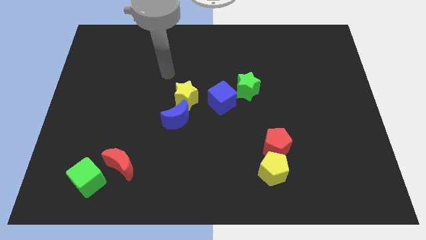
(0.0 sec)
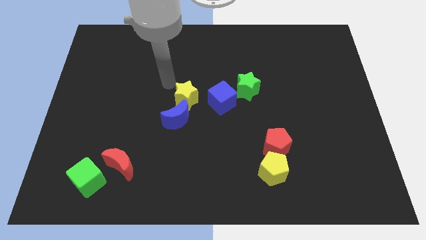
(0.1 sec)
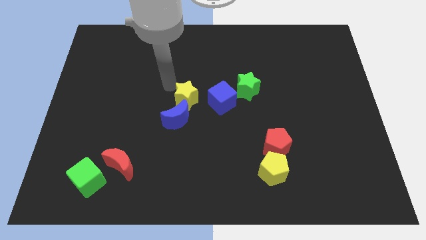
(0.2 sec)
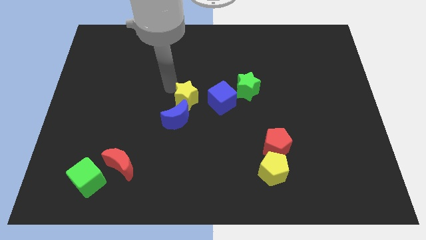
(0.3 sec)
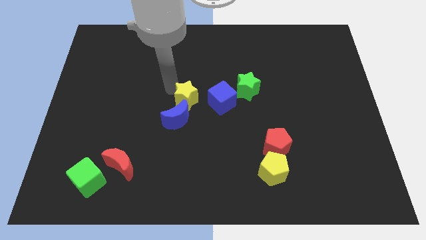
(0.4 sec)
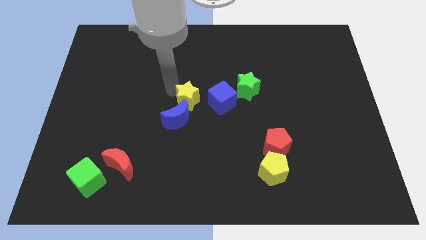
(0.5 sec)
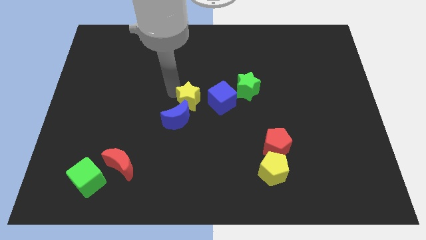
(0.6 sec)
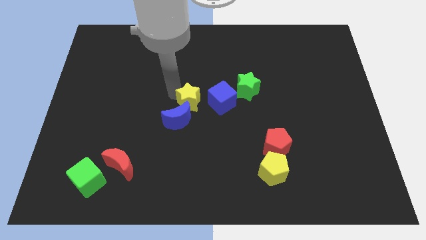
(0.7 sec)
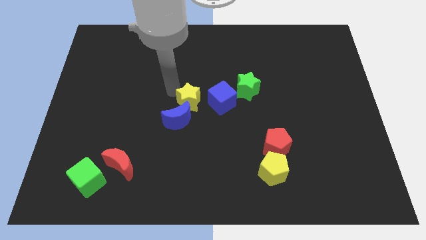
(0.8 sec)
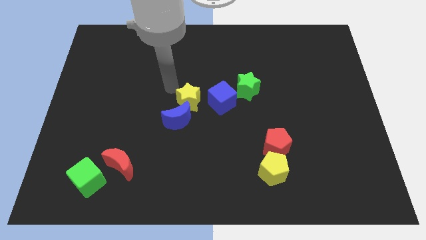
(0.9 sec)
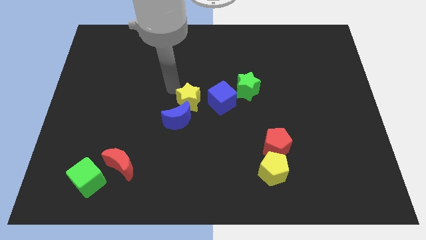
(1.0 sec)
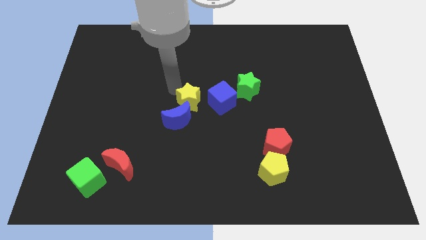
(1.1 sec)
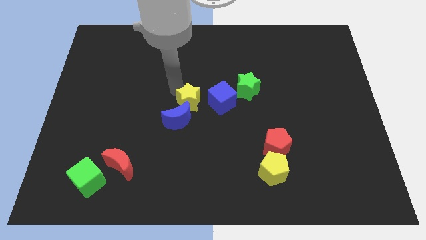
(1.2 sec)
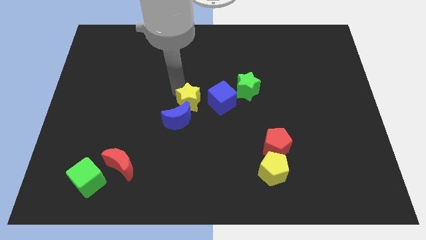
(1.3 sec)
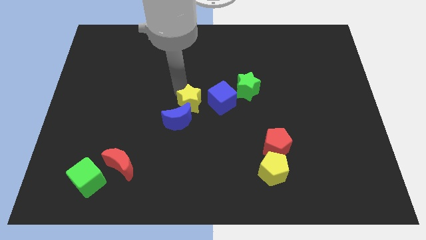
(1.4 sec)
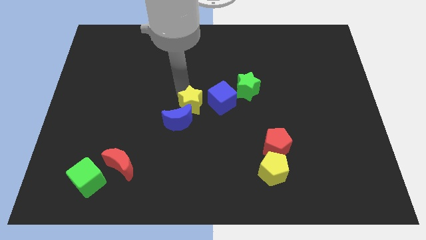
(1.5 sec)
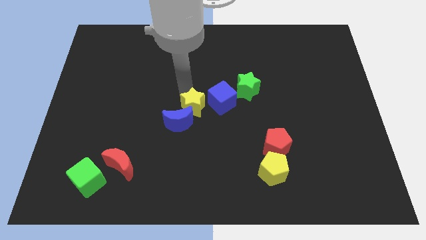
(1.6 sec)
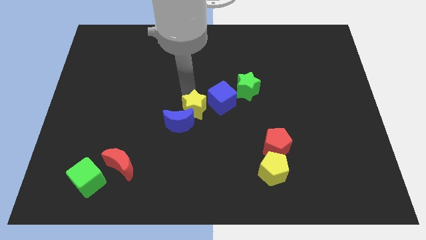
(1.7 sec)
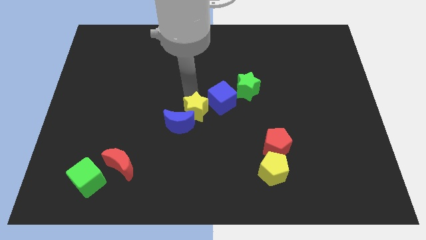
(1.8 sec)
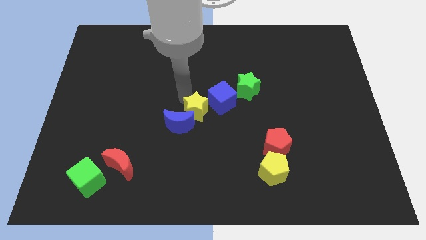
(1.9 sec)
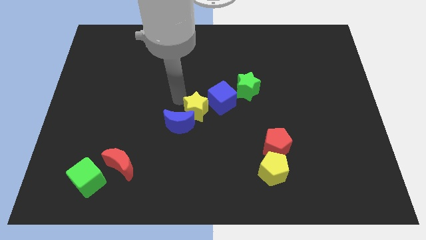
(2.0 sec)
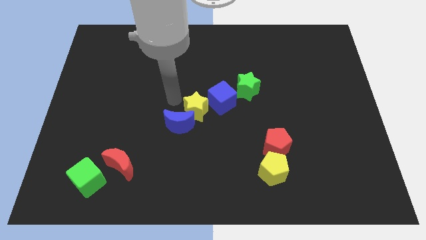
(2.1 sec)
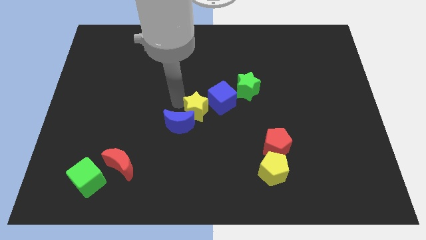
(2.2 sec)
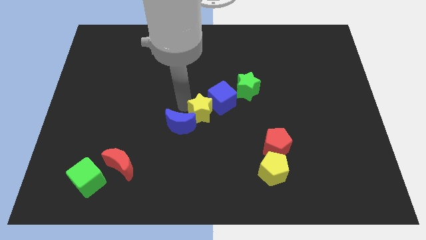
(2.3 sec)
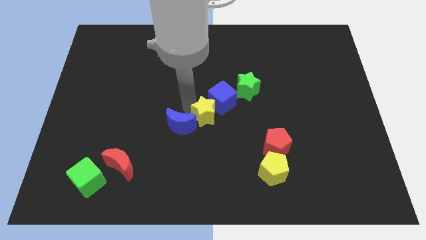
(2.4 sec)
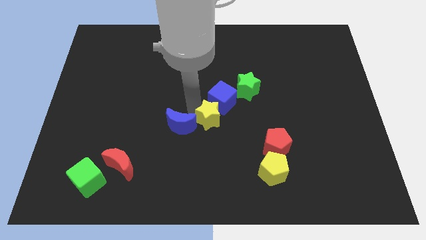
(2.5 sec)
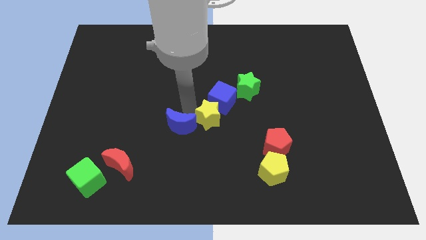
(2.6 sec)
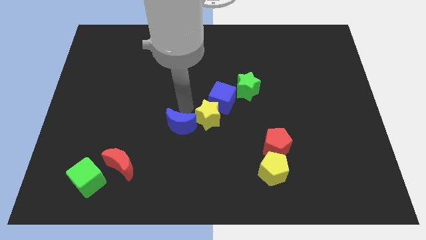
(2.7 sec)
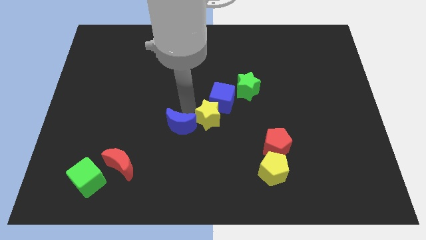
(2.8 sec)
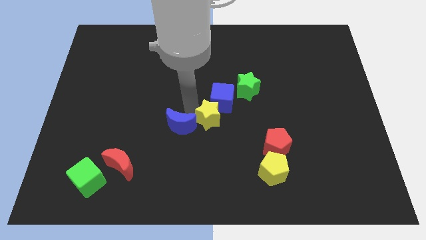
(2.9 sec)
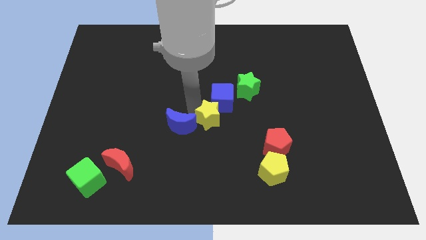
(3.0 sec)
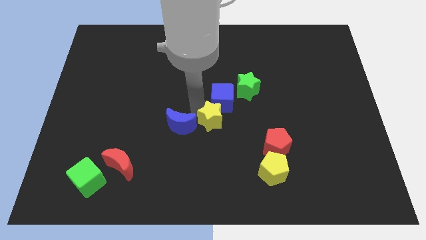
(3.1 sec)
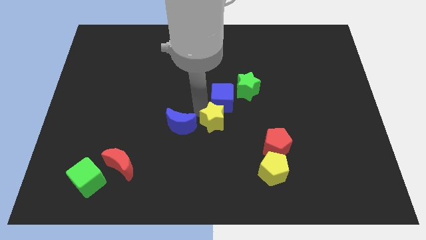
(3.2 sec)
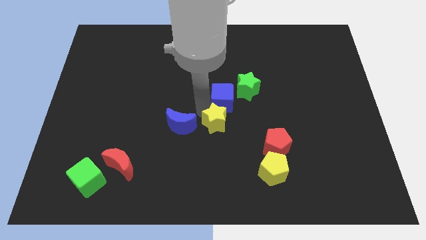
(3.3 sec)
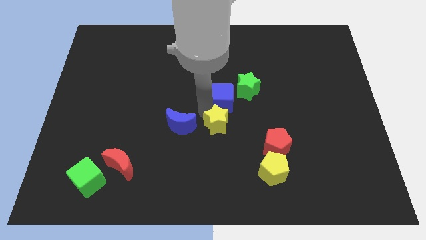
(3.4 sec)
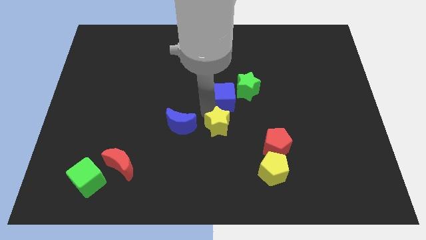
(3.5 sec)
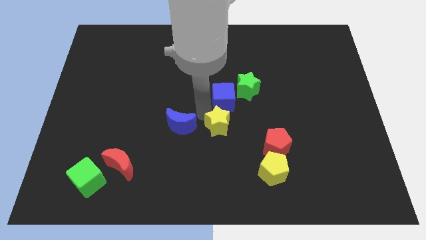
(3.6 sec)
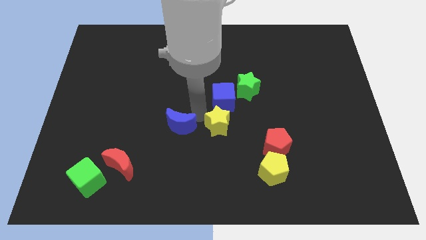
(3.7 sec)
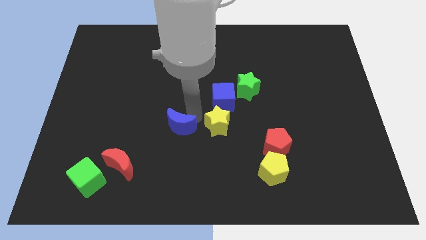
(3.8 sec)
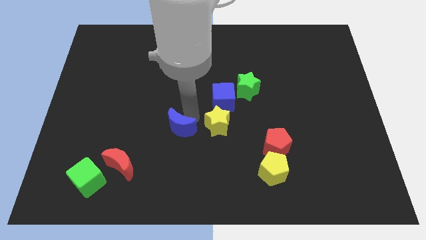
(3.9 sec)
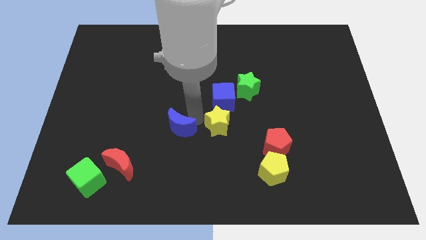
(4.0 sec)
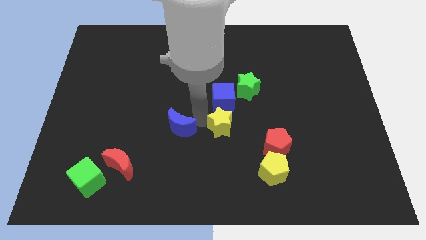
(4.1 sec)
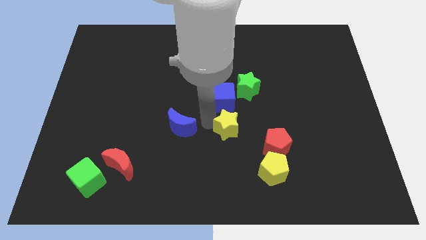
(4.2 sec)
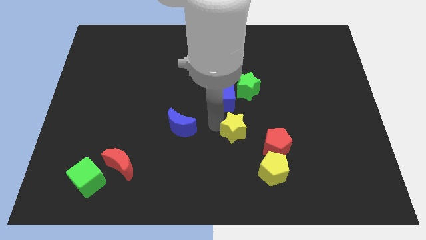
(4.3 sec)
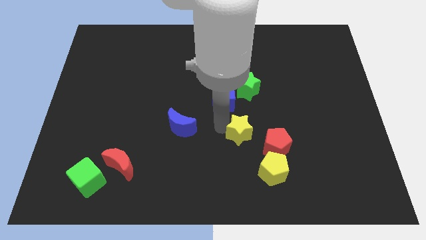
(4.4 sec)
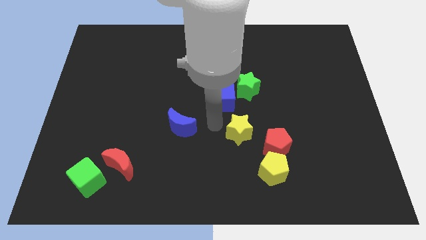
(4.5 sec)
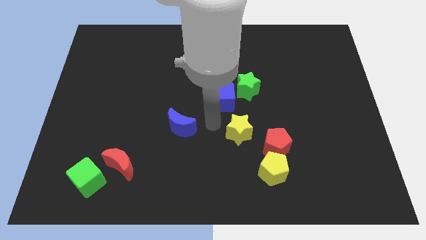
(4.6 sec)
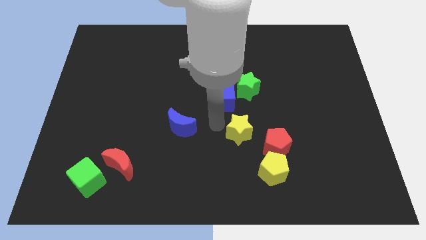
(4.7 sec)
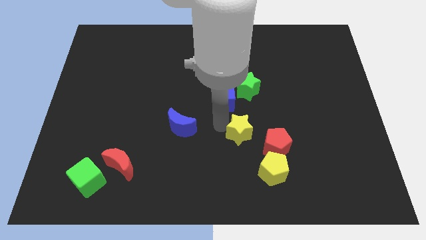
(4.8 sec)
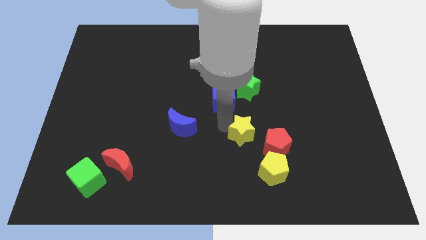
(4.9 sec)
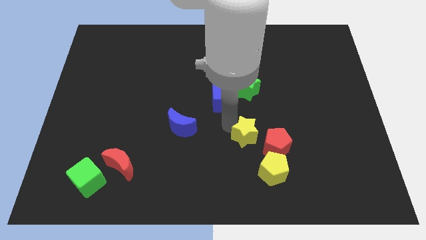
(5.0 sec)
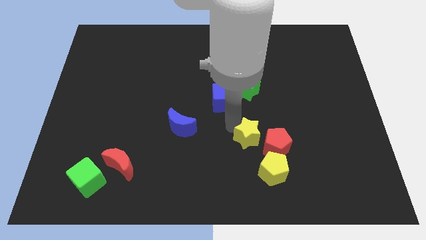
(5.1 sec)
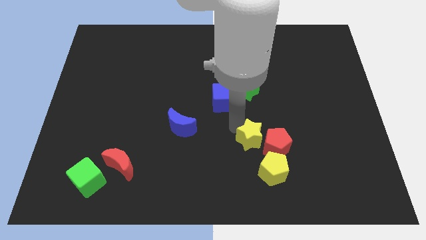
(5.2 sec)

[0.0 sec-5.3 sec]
push the yellow star close to the red pentagon

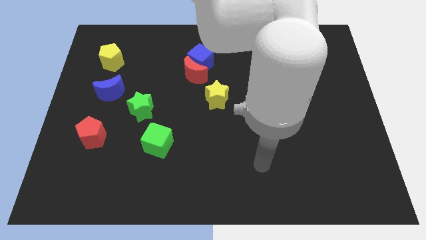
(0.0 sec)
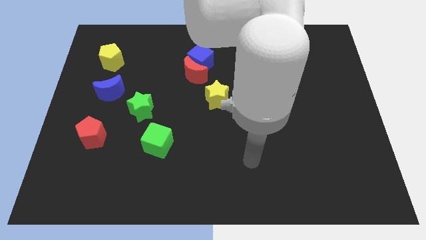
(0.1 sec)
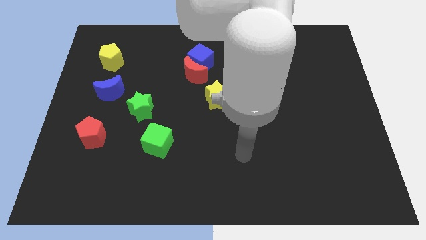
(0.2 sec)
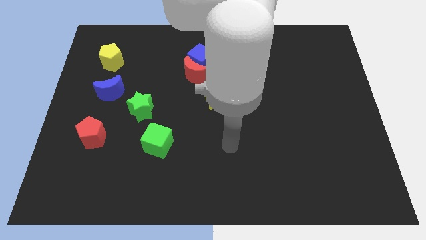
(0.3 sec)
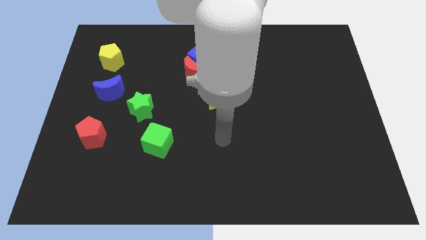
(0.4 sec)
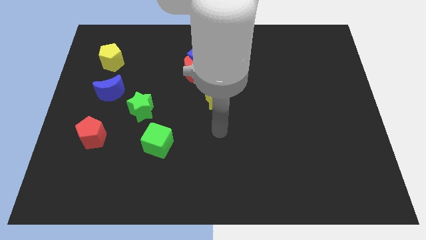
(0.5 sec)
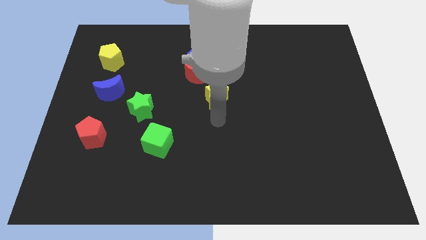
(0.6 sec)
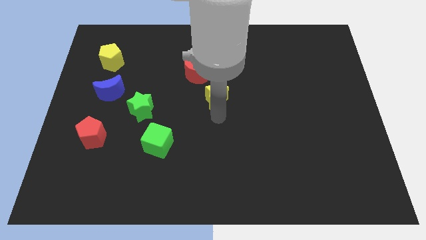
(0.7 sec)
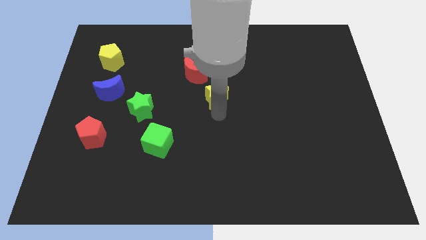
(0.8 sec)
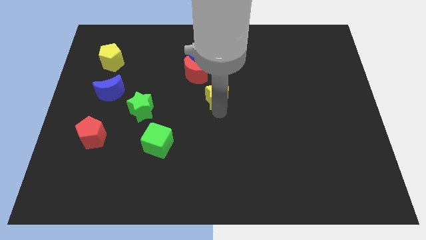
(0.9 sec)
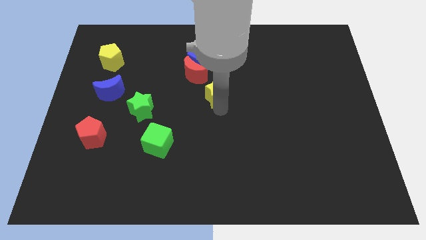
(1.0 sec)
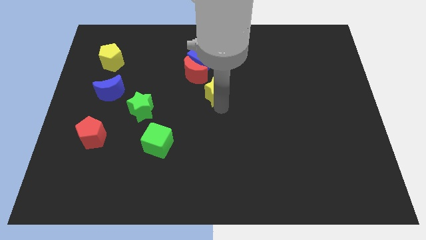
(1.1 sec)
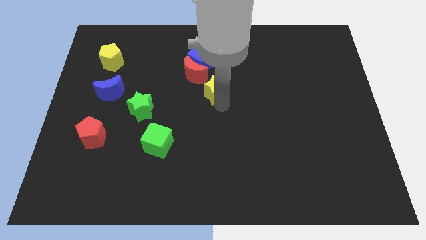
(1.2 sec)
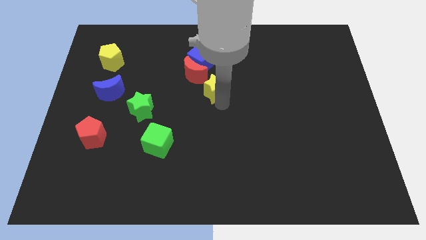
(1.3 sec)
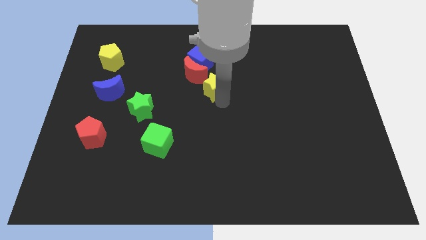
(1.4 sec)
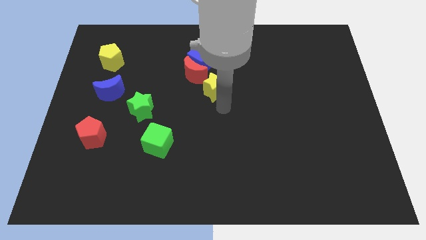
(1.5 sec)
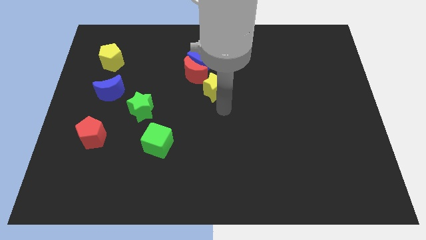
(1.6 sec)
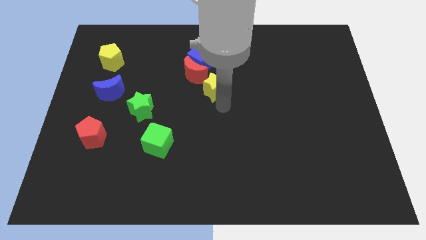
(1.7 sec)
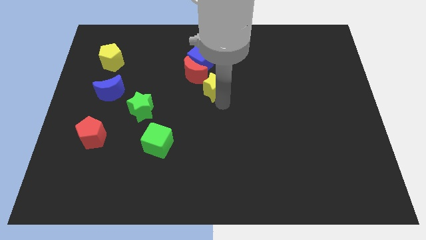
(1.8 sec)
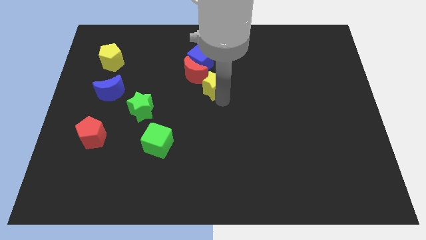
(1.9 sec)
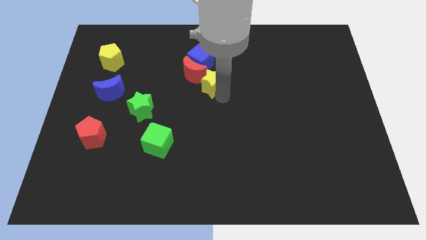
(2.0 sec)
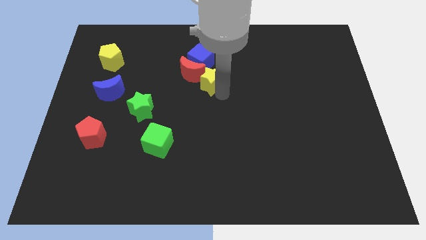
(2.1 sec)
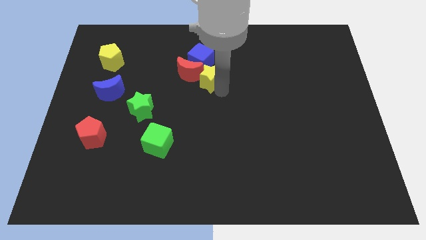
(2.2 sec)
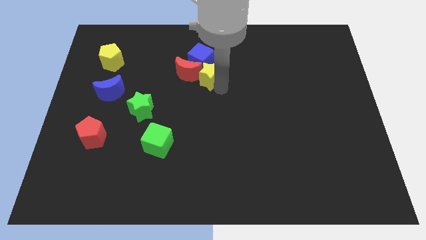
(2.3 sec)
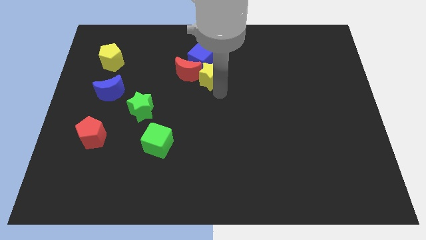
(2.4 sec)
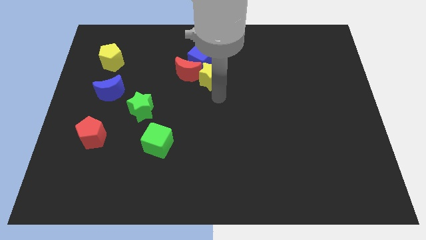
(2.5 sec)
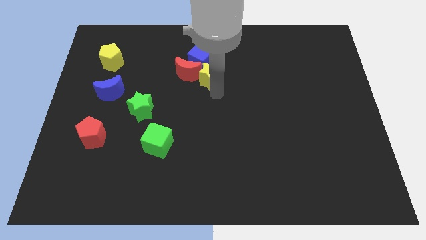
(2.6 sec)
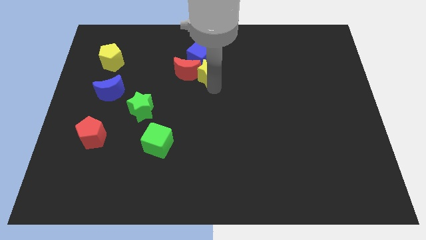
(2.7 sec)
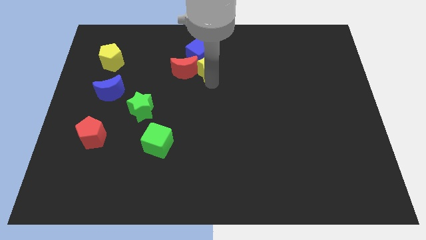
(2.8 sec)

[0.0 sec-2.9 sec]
move the yellow star close to the blue cube
